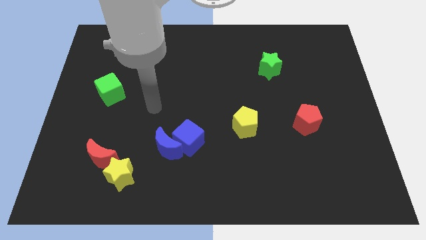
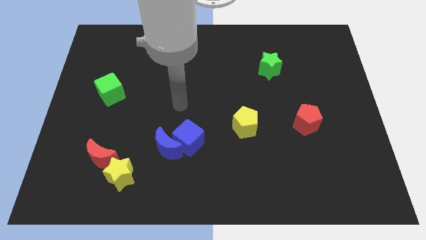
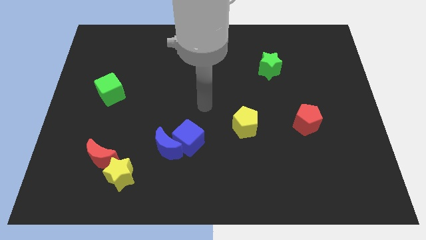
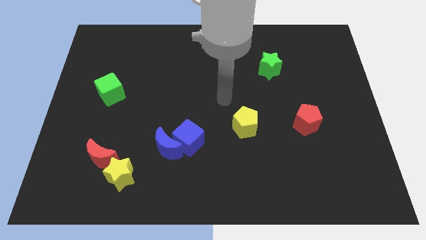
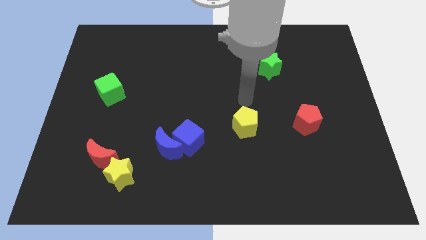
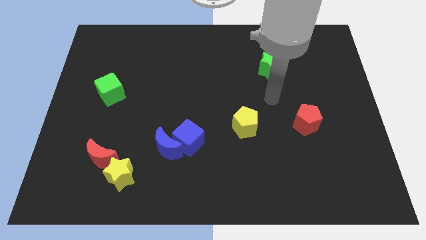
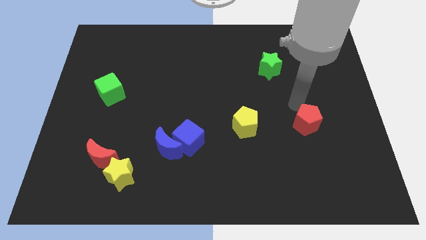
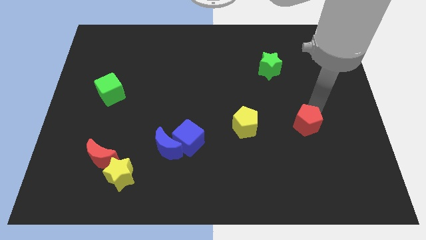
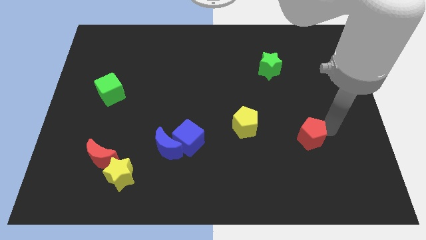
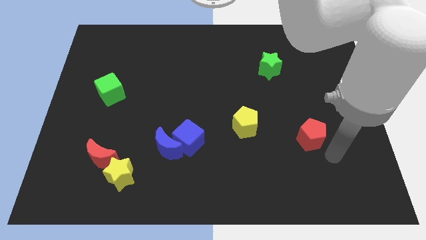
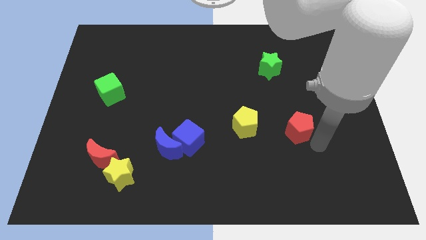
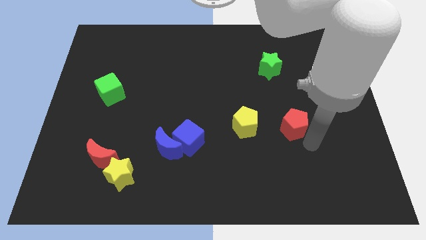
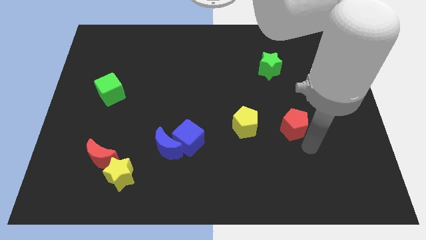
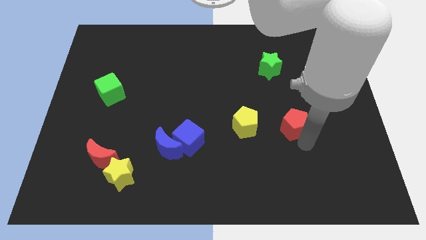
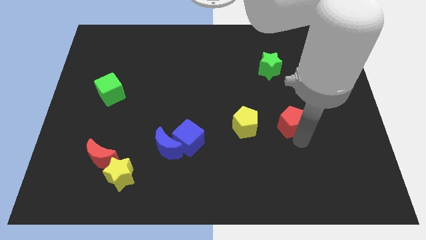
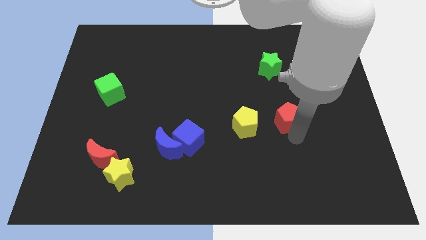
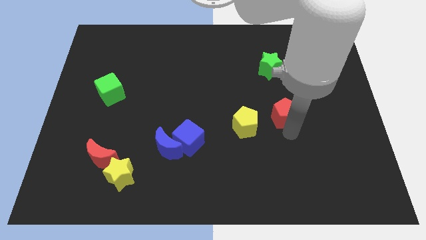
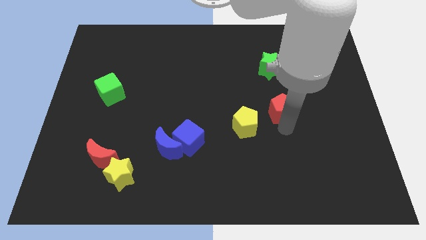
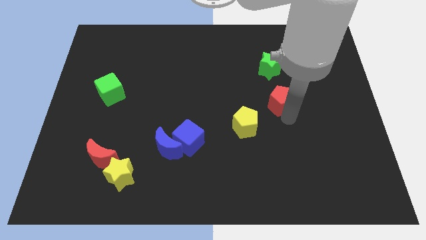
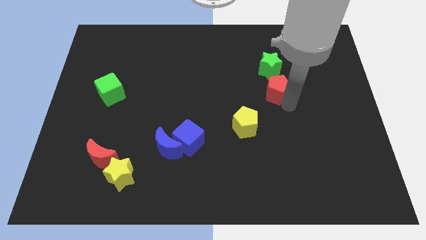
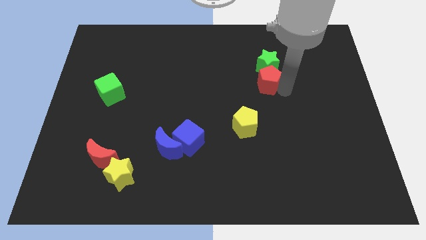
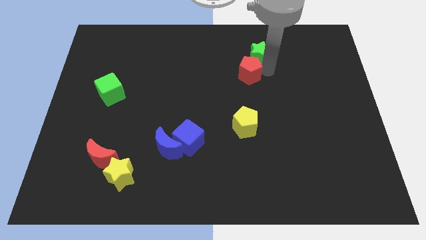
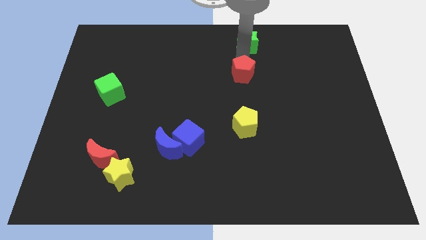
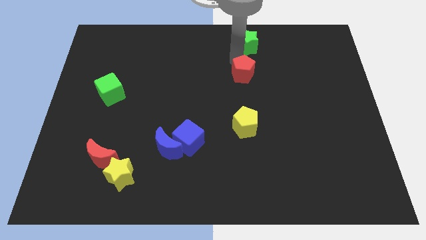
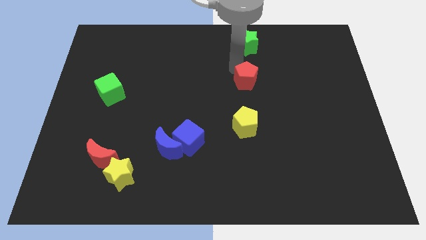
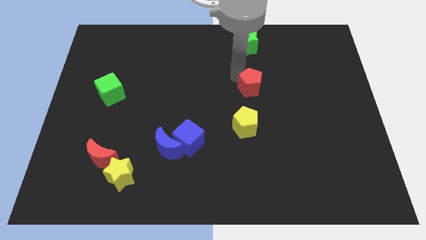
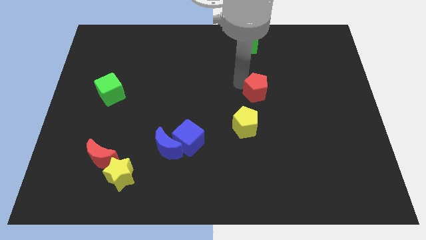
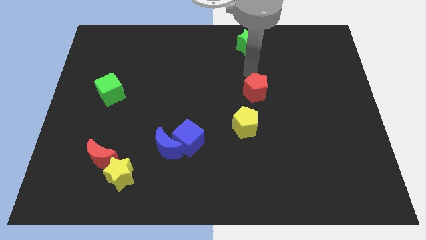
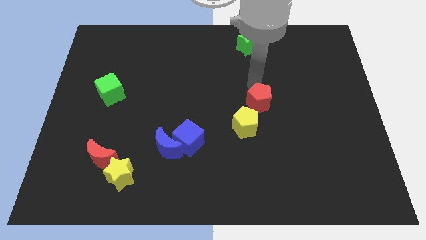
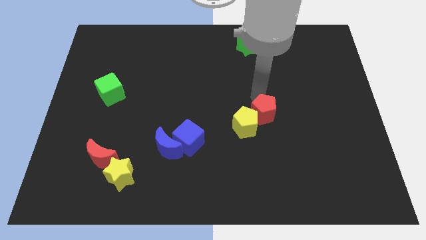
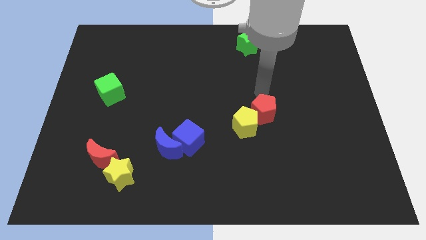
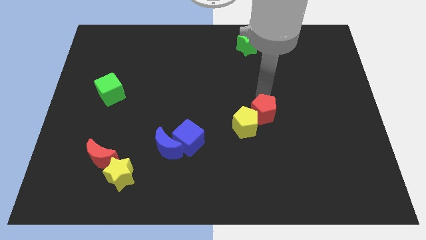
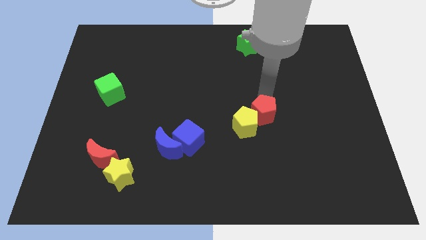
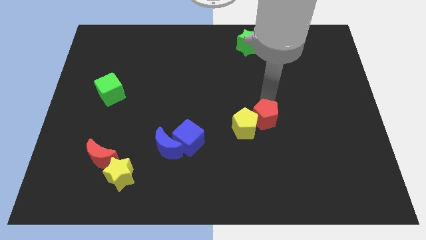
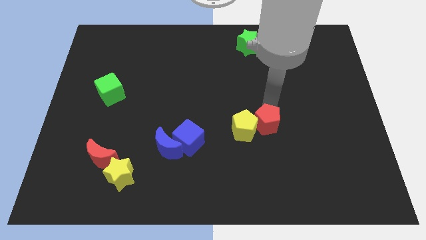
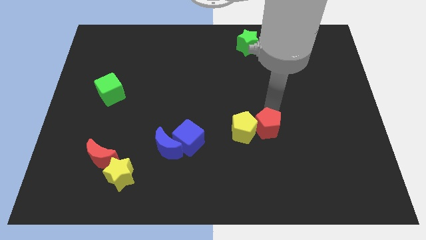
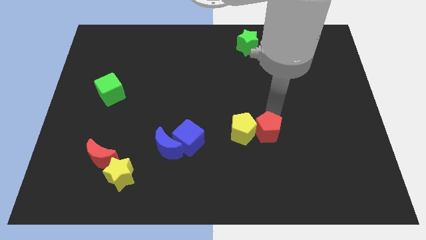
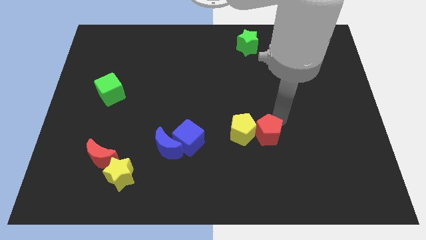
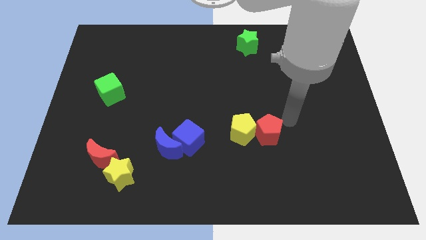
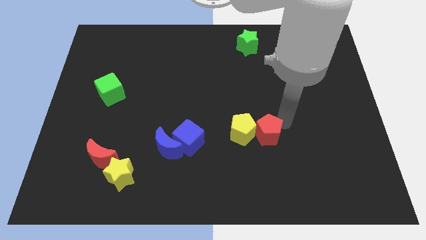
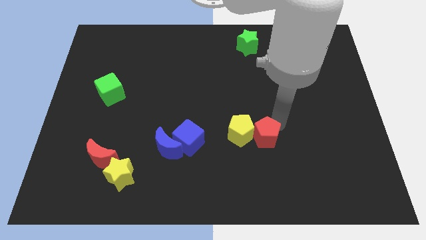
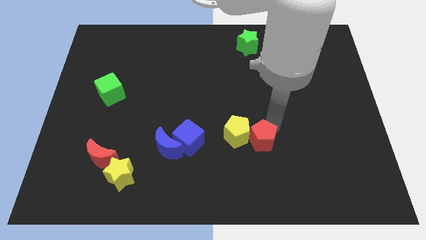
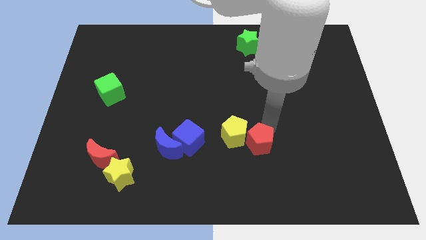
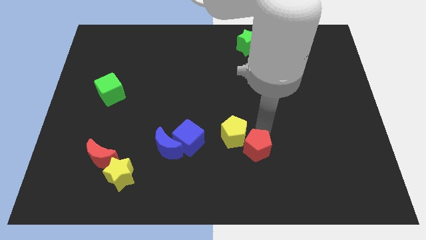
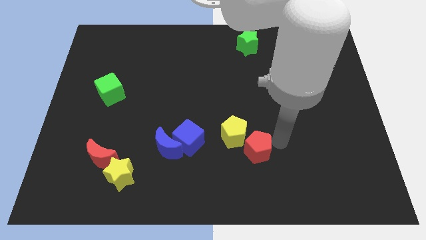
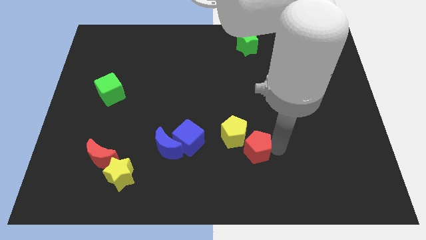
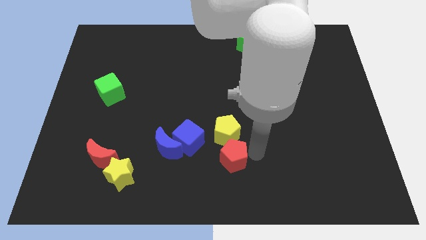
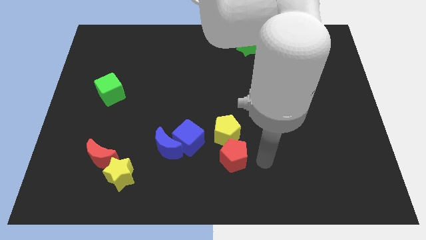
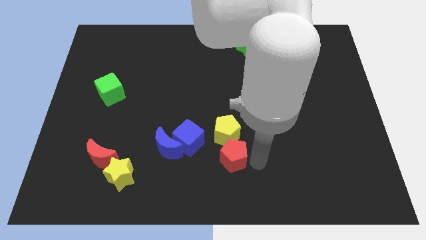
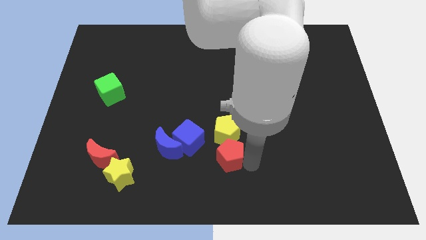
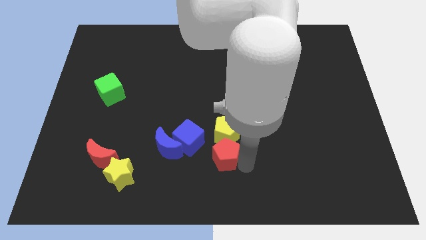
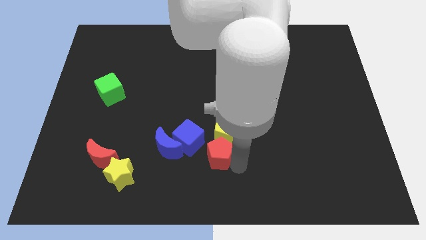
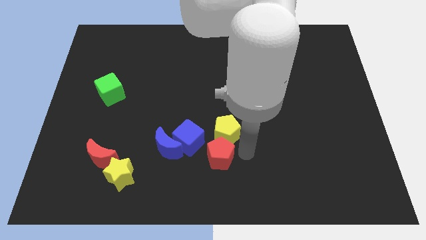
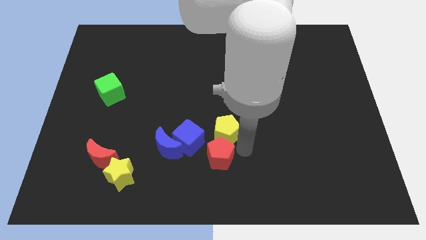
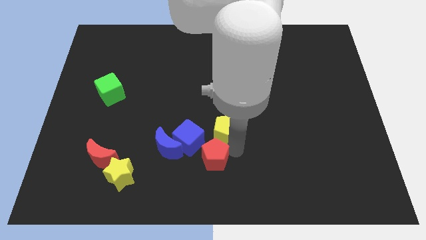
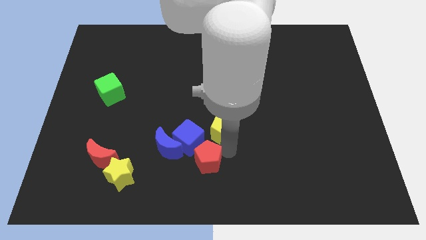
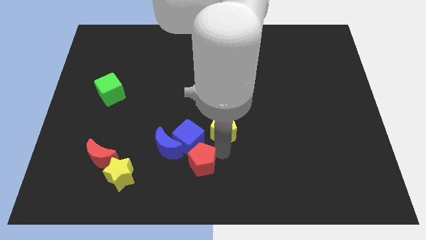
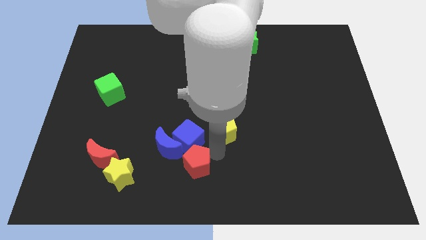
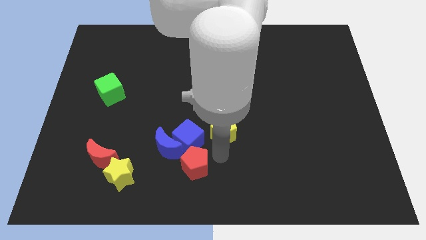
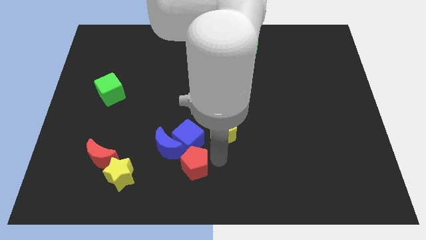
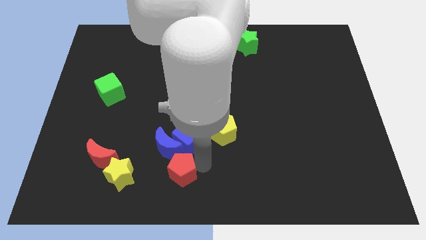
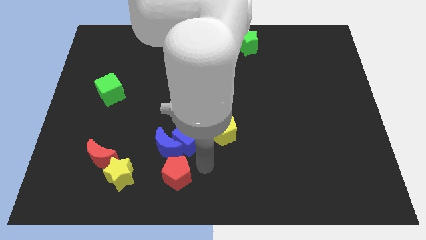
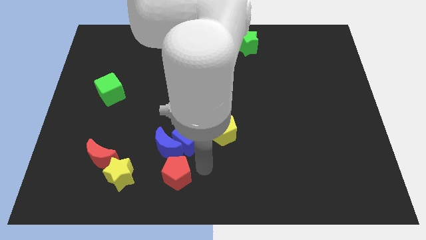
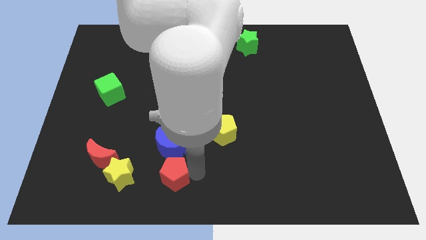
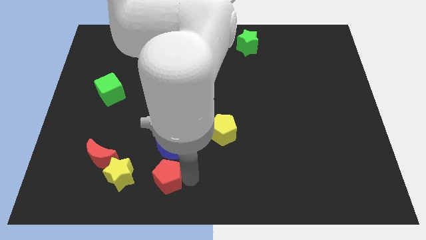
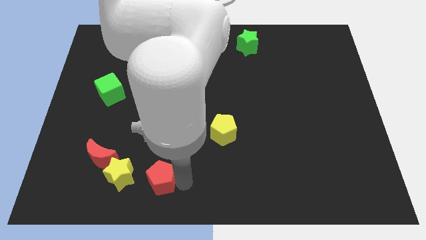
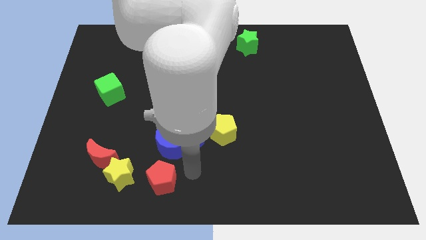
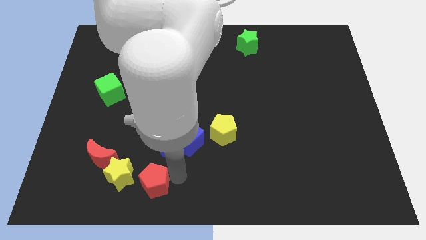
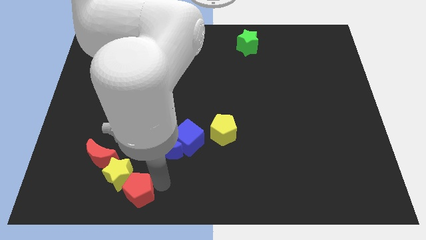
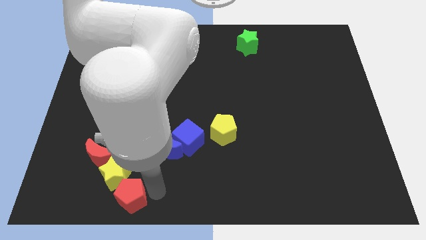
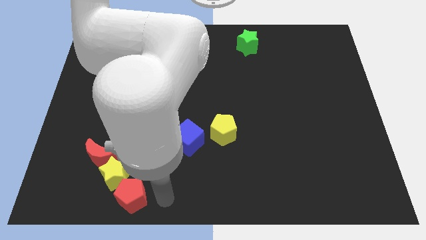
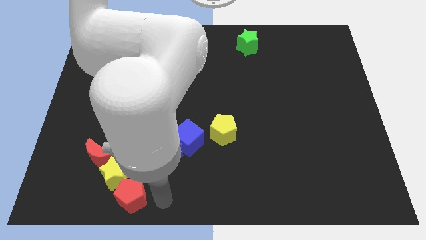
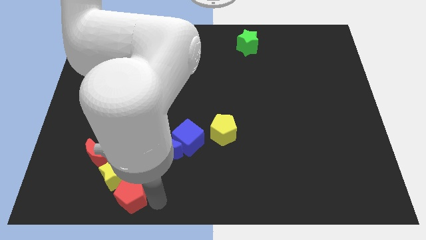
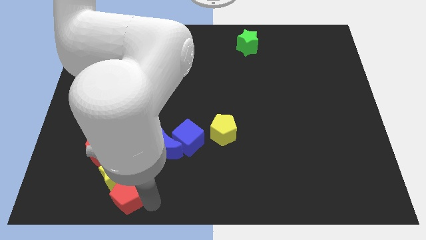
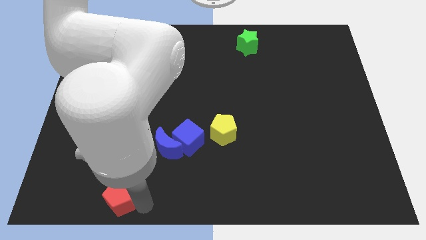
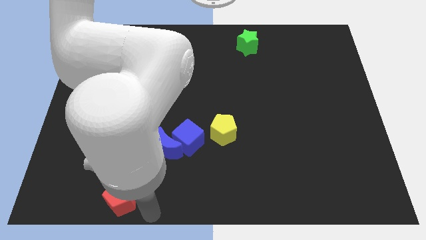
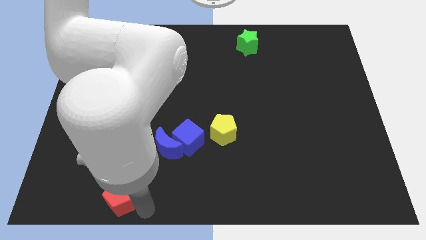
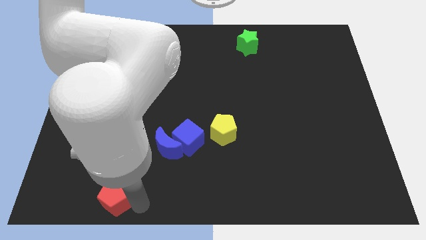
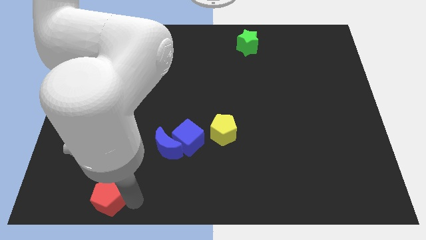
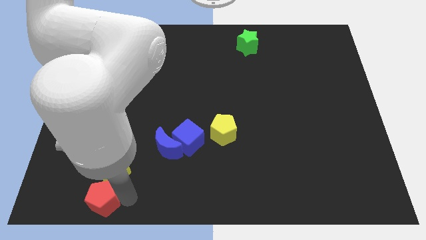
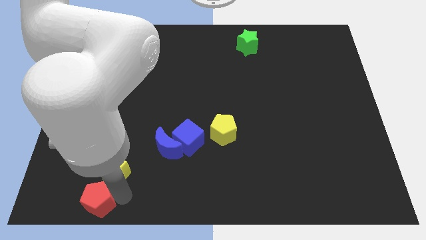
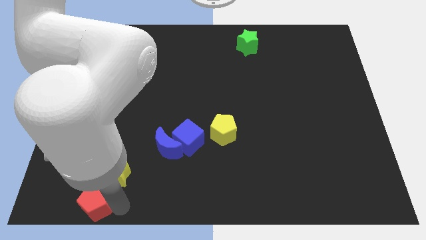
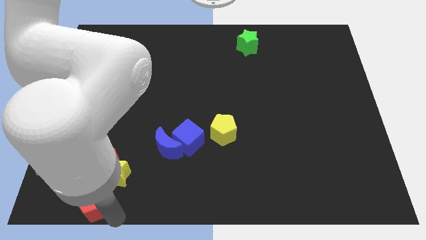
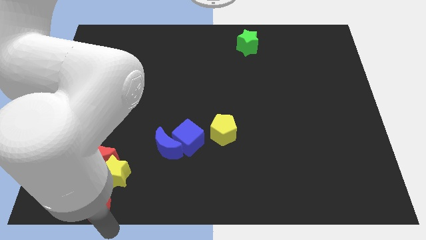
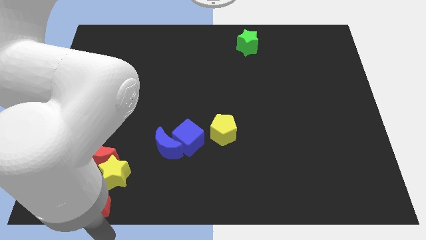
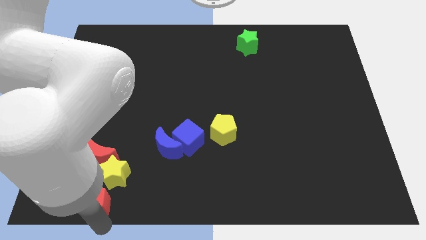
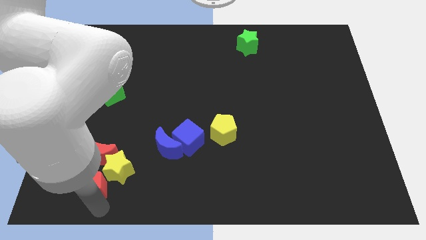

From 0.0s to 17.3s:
push the red pentagon to the left of the yellow star
